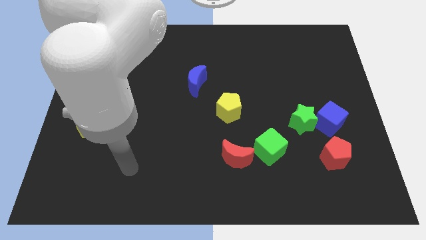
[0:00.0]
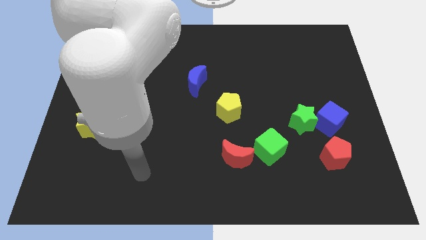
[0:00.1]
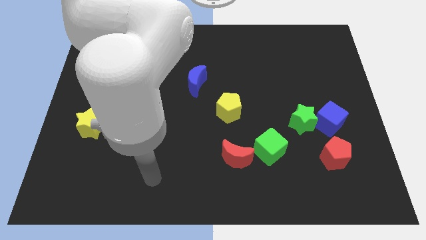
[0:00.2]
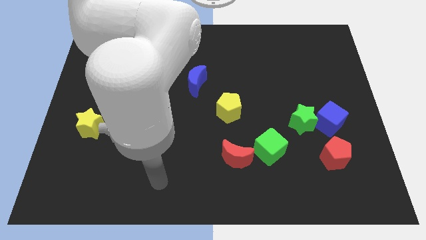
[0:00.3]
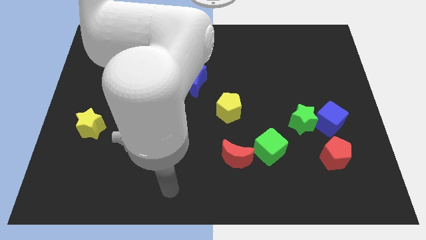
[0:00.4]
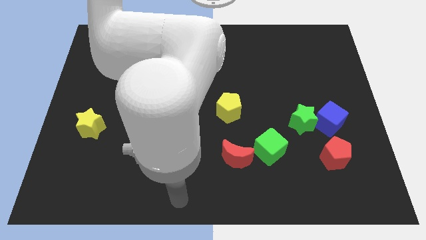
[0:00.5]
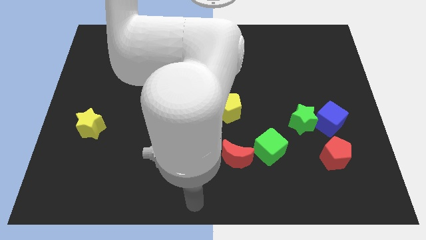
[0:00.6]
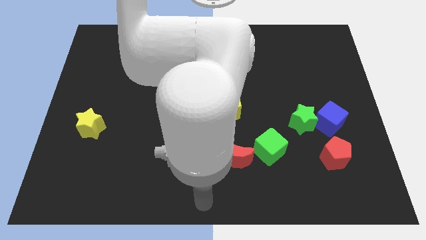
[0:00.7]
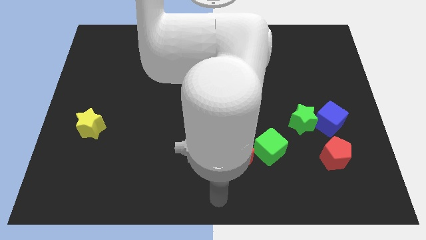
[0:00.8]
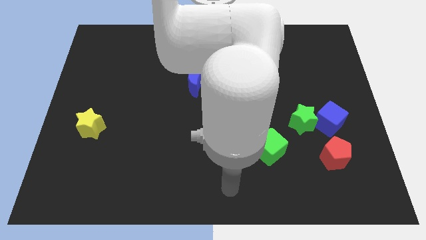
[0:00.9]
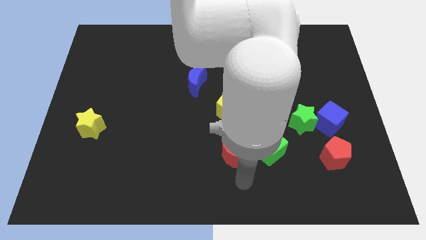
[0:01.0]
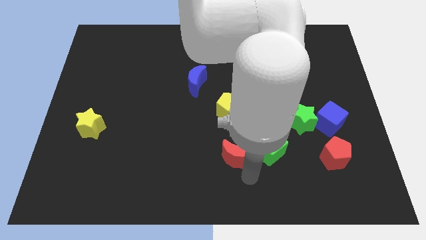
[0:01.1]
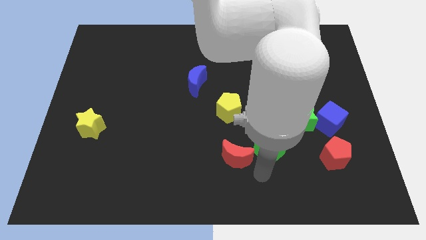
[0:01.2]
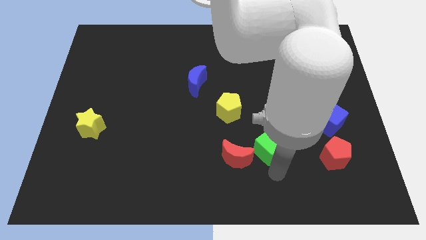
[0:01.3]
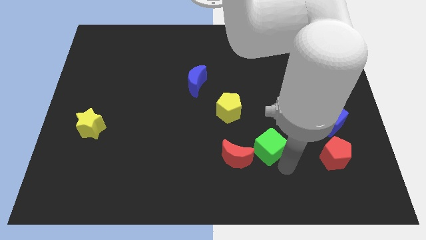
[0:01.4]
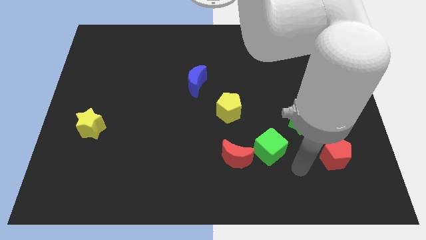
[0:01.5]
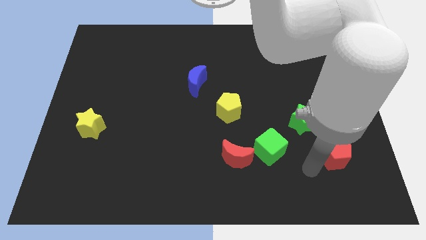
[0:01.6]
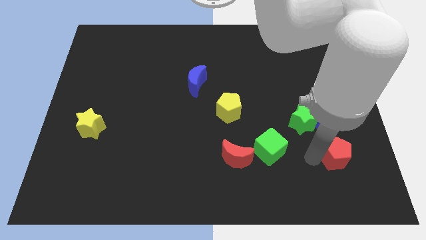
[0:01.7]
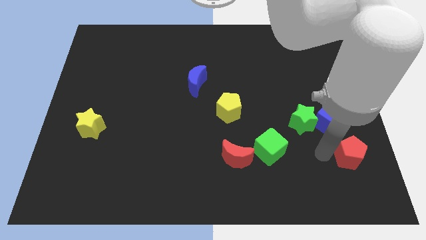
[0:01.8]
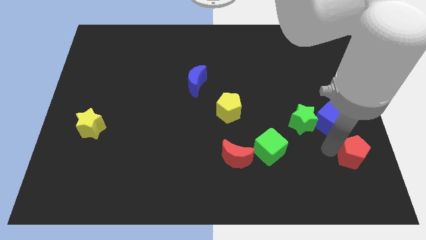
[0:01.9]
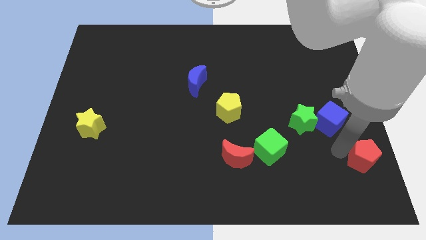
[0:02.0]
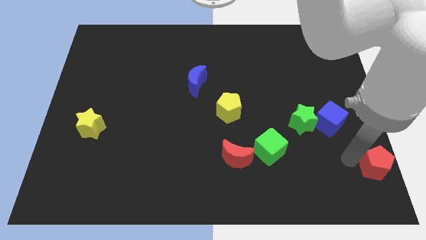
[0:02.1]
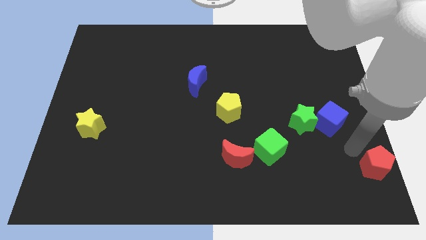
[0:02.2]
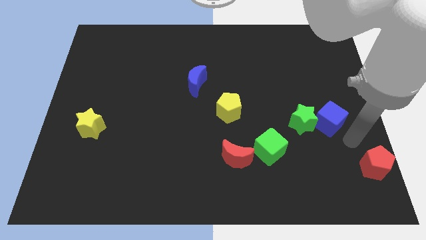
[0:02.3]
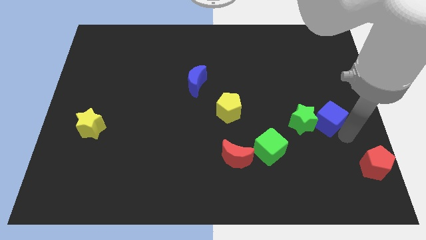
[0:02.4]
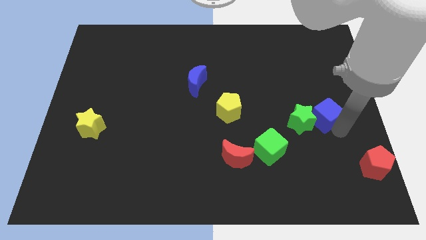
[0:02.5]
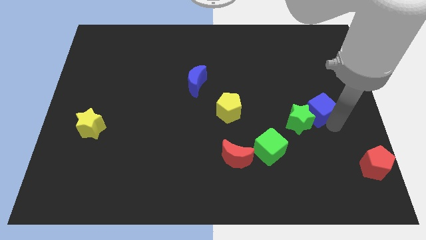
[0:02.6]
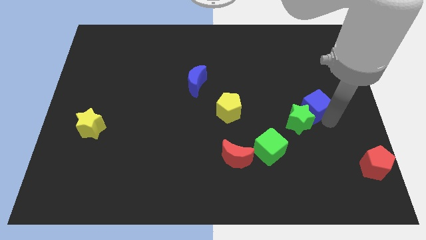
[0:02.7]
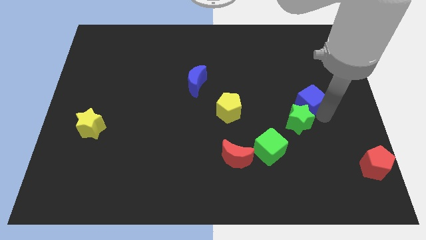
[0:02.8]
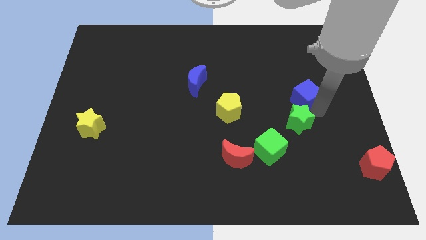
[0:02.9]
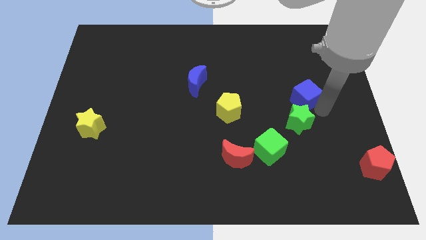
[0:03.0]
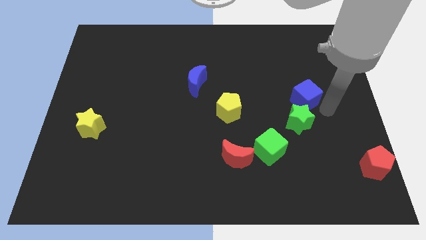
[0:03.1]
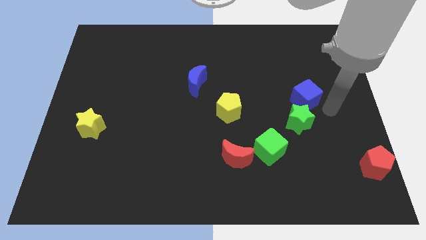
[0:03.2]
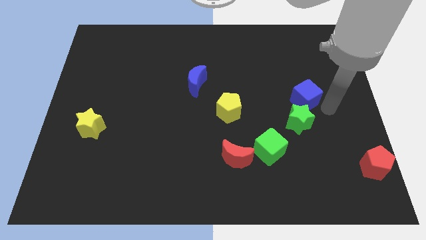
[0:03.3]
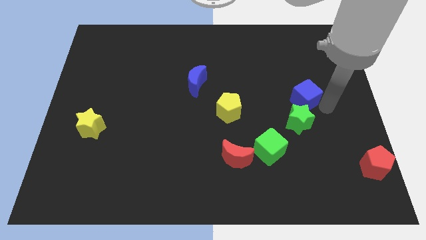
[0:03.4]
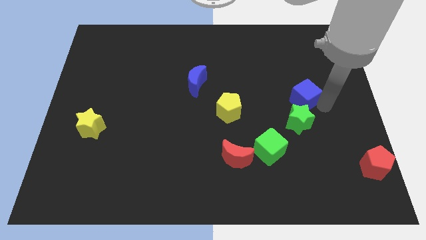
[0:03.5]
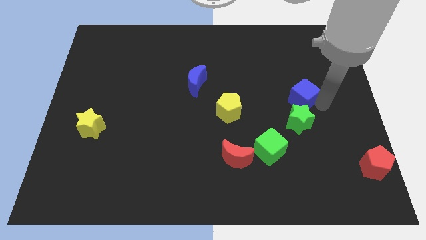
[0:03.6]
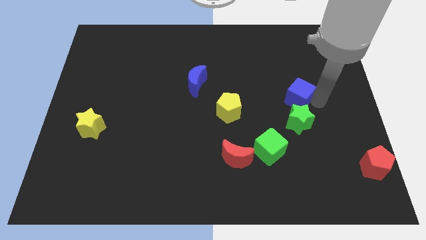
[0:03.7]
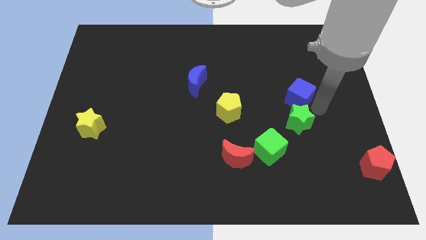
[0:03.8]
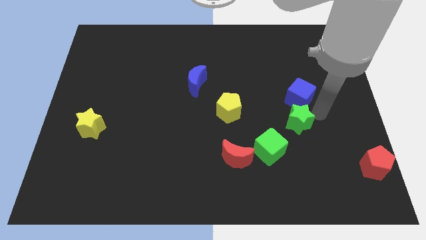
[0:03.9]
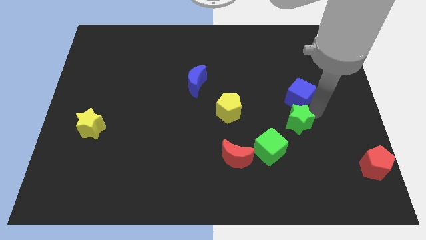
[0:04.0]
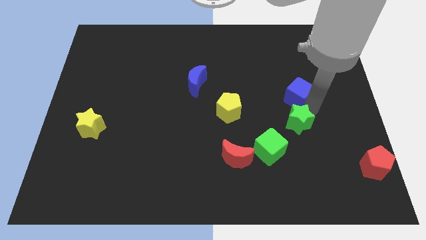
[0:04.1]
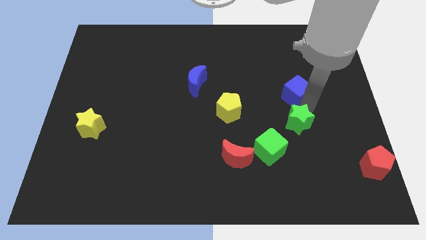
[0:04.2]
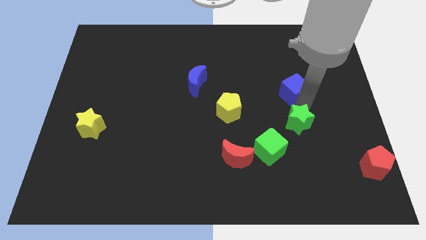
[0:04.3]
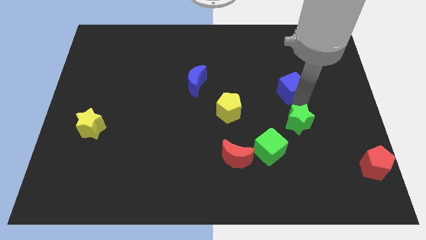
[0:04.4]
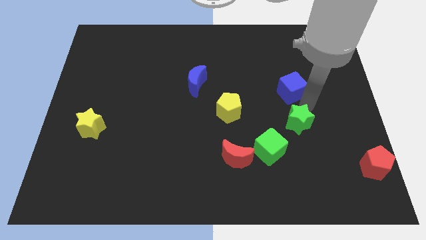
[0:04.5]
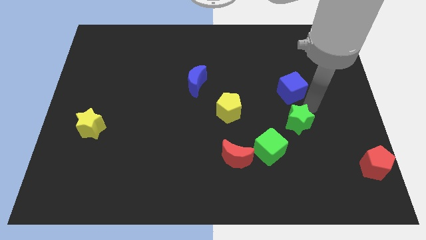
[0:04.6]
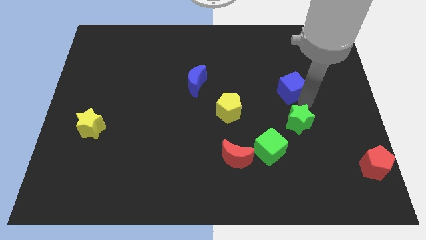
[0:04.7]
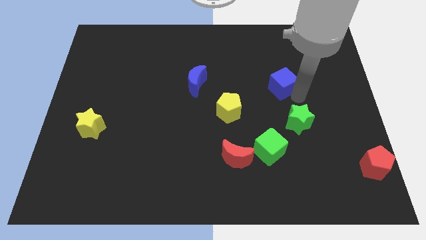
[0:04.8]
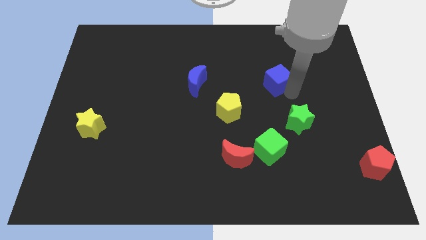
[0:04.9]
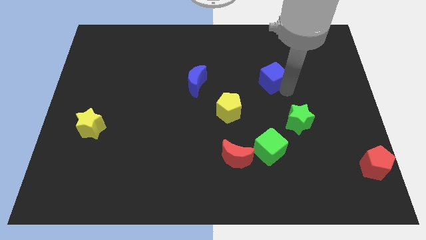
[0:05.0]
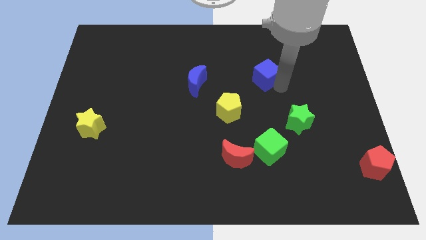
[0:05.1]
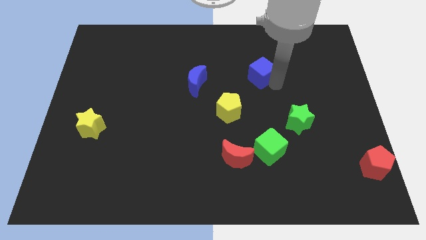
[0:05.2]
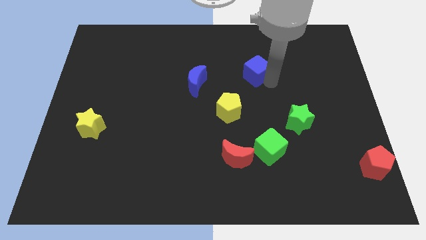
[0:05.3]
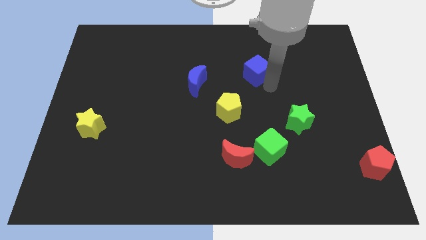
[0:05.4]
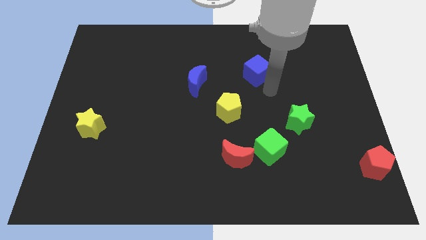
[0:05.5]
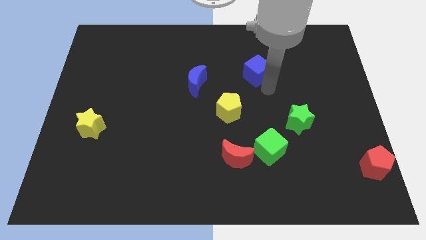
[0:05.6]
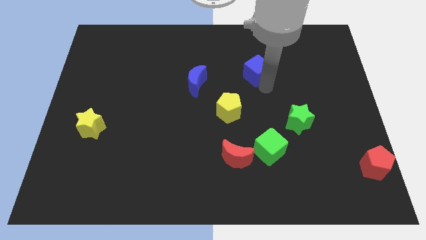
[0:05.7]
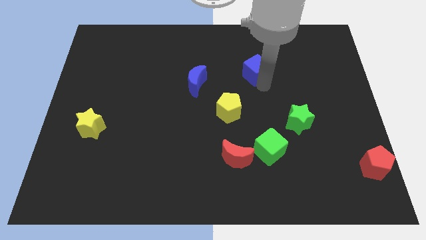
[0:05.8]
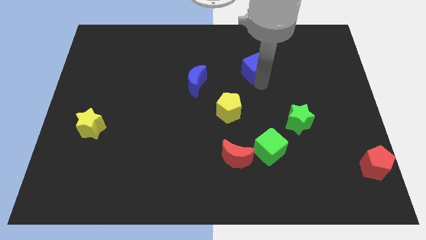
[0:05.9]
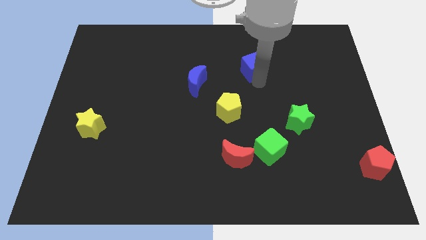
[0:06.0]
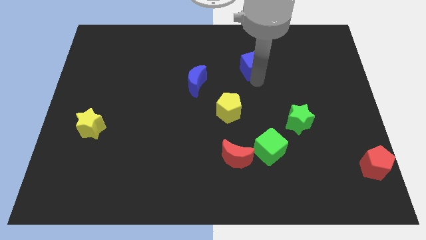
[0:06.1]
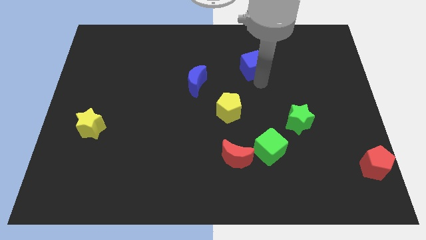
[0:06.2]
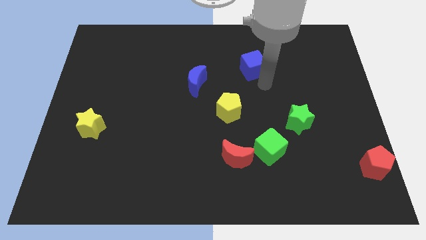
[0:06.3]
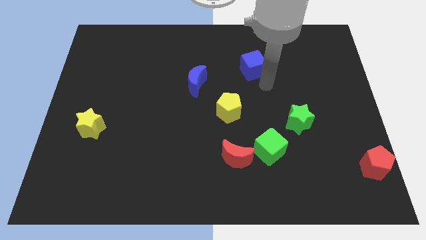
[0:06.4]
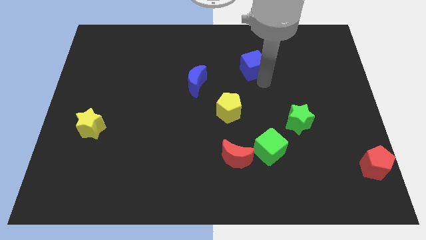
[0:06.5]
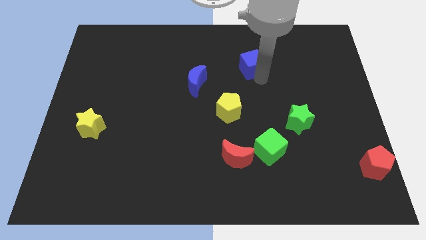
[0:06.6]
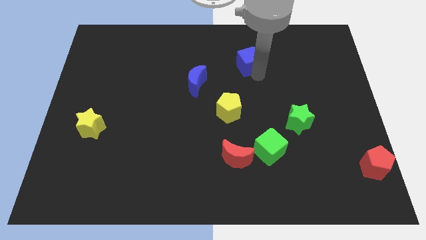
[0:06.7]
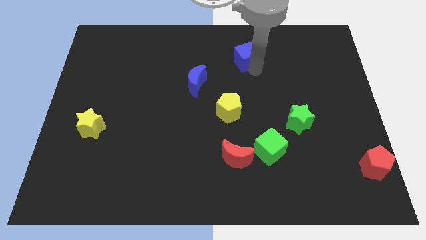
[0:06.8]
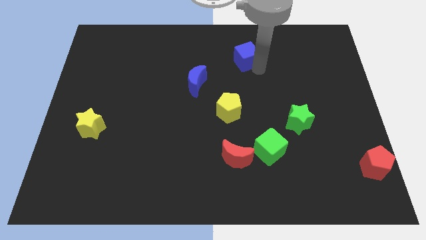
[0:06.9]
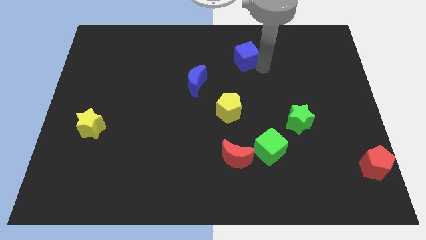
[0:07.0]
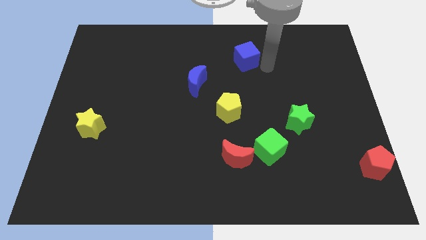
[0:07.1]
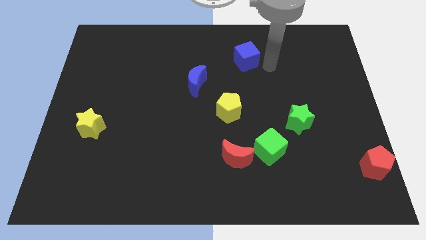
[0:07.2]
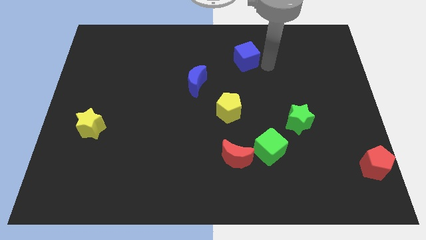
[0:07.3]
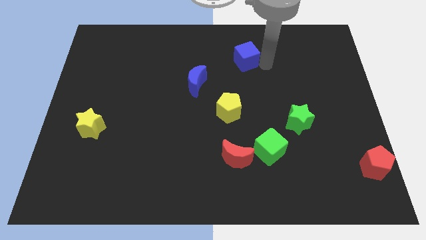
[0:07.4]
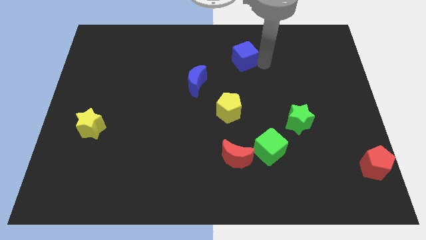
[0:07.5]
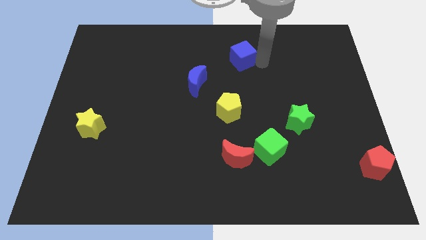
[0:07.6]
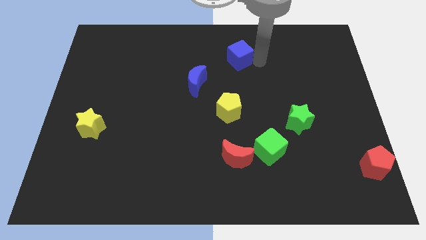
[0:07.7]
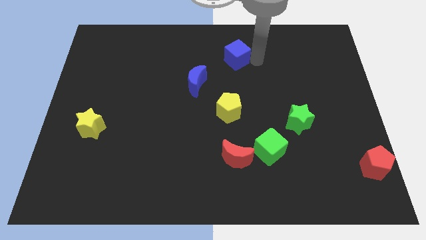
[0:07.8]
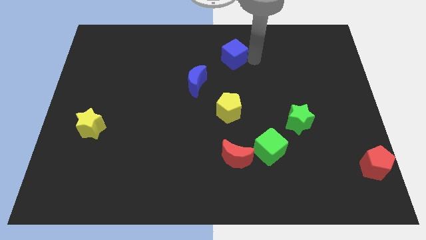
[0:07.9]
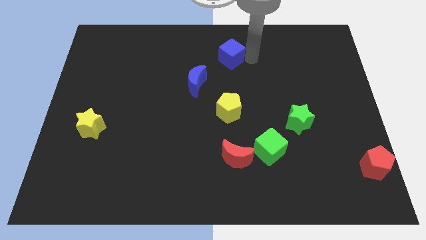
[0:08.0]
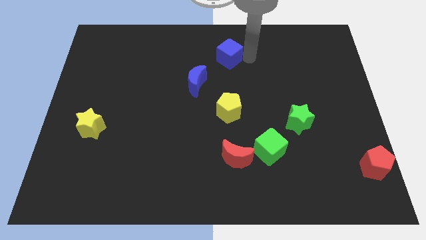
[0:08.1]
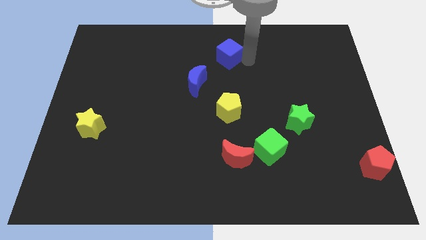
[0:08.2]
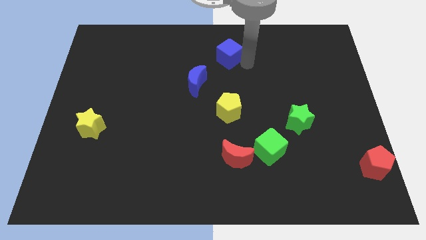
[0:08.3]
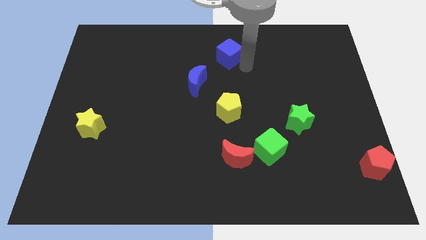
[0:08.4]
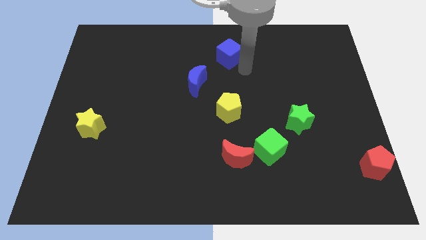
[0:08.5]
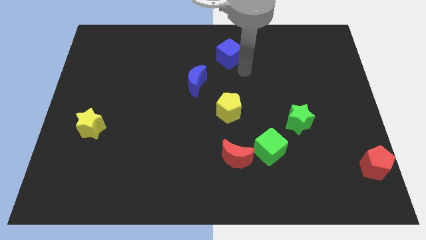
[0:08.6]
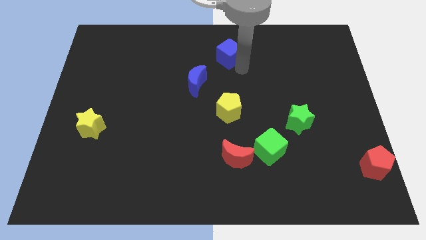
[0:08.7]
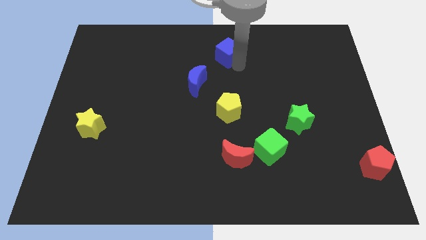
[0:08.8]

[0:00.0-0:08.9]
put the blue cube to the top side
